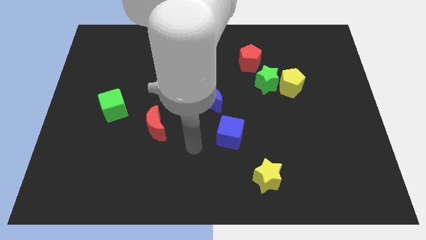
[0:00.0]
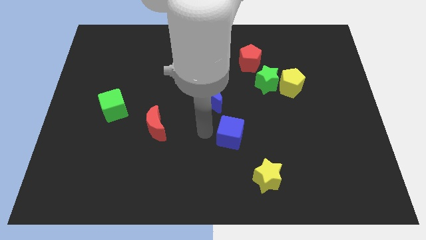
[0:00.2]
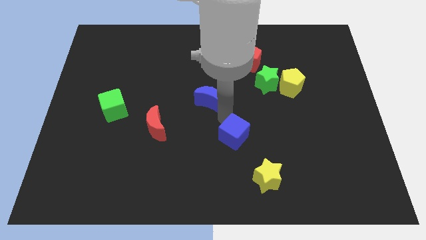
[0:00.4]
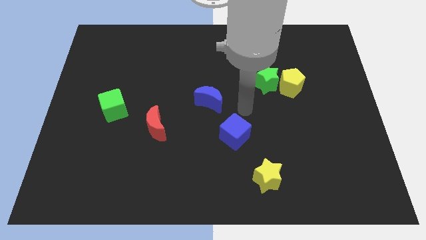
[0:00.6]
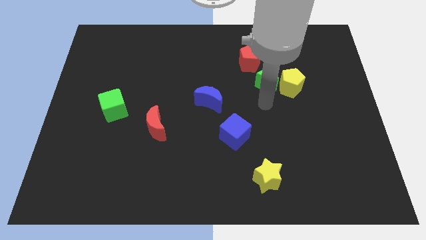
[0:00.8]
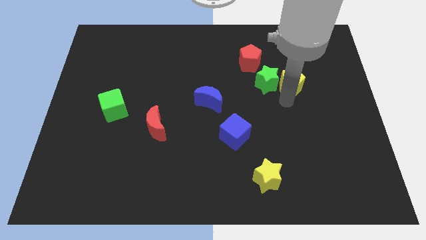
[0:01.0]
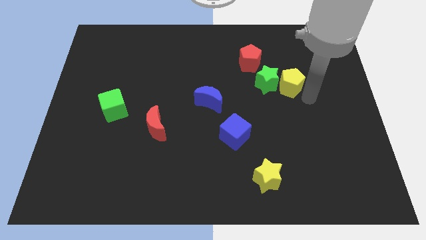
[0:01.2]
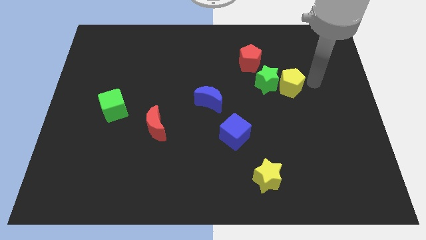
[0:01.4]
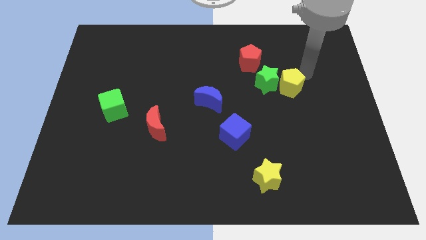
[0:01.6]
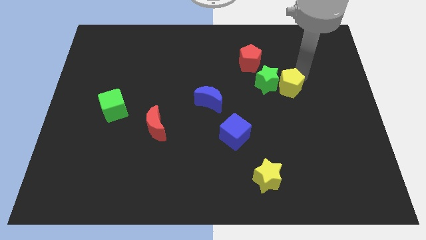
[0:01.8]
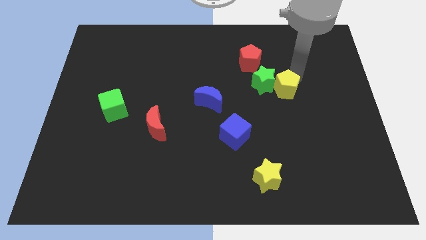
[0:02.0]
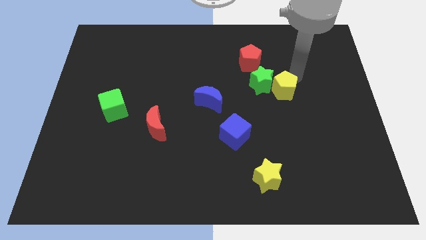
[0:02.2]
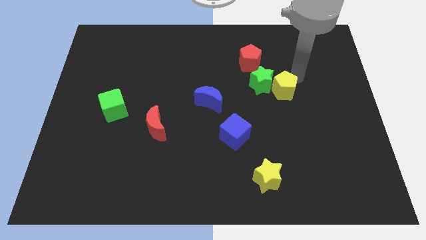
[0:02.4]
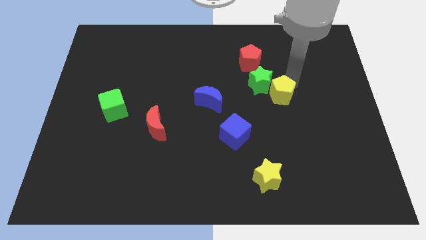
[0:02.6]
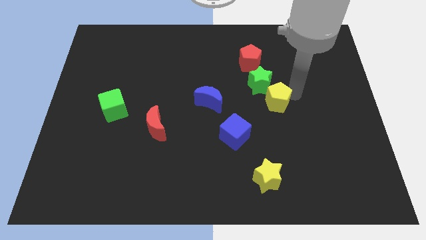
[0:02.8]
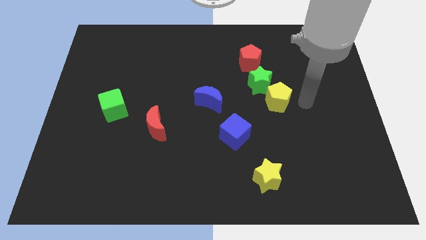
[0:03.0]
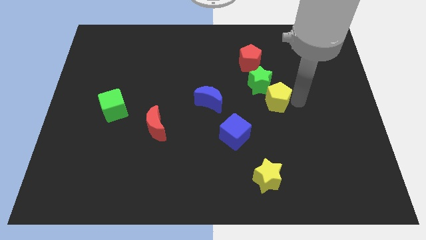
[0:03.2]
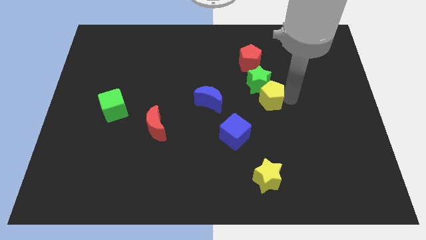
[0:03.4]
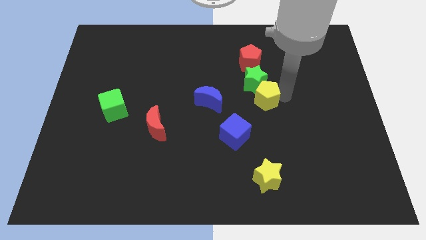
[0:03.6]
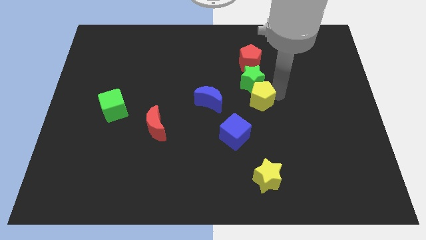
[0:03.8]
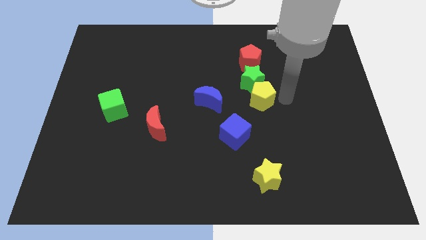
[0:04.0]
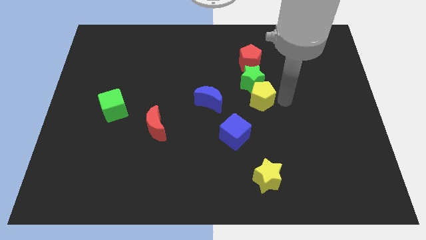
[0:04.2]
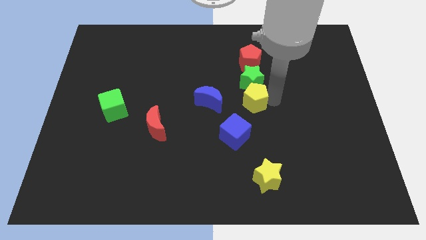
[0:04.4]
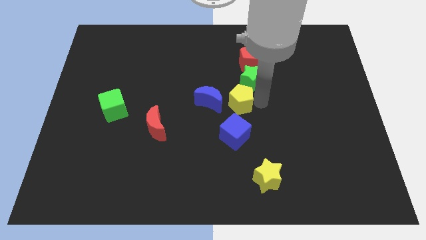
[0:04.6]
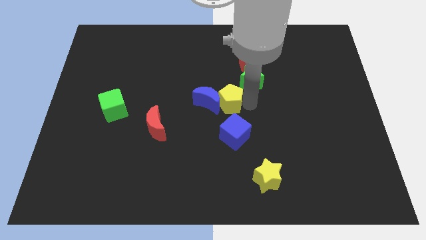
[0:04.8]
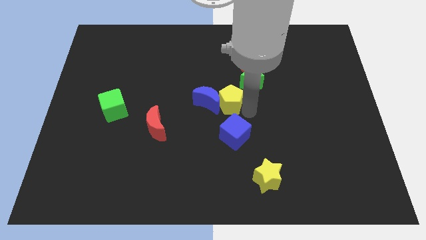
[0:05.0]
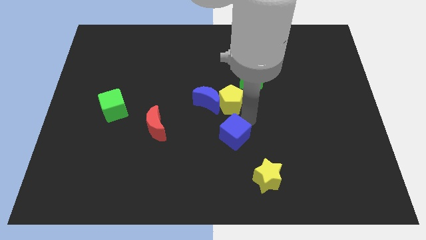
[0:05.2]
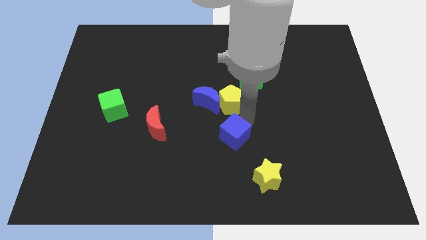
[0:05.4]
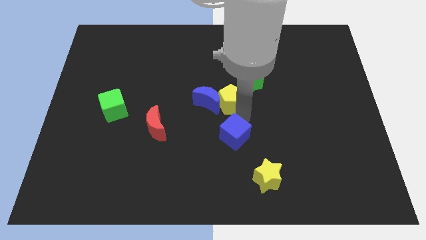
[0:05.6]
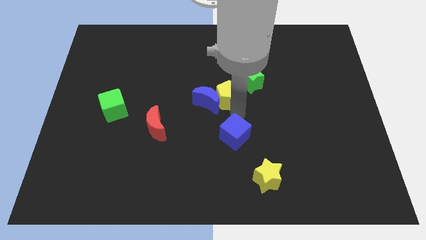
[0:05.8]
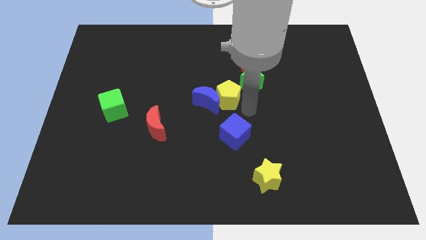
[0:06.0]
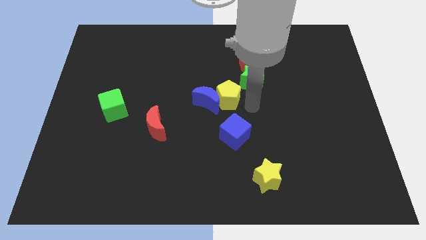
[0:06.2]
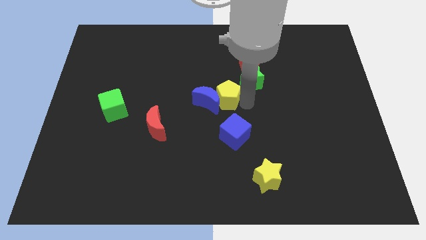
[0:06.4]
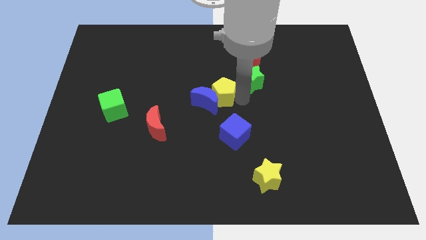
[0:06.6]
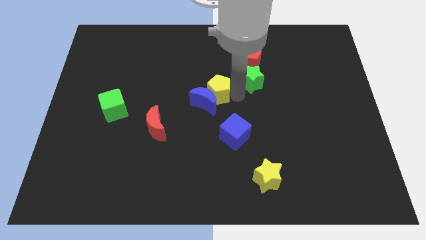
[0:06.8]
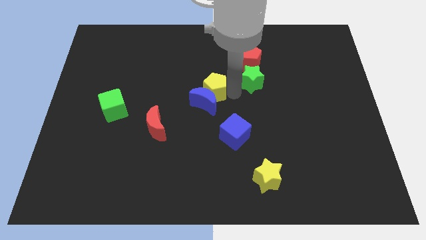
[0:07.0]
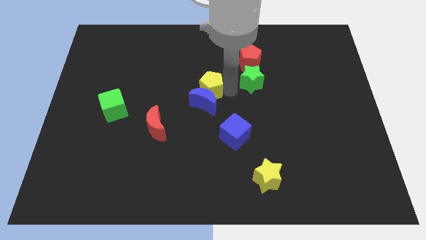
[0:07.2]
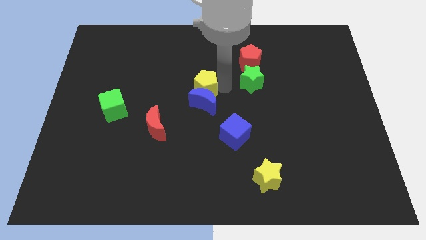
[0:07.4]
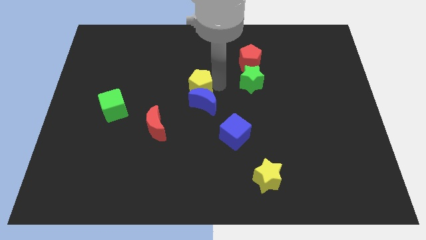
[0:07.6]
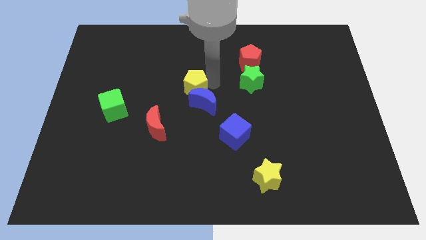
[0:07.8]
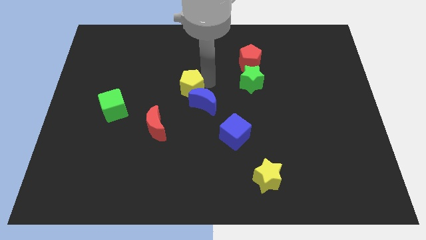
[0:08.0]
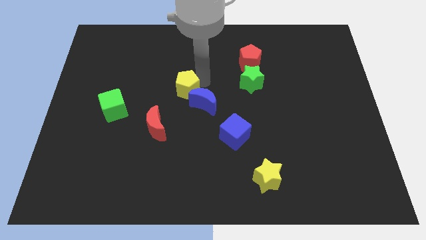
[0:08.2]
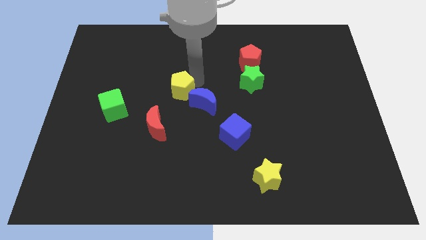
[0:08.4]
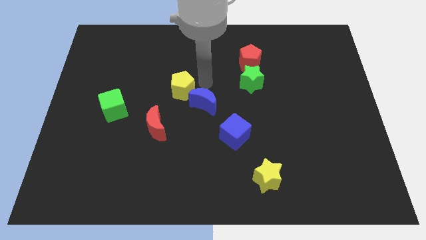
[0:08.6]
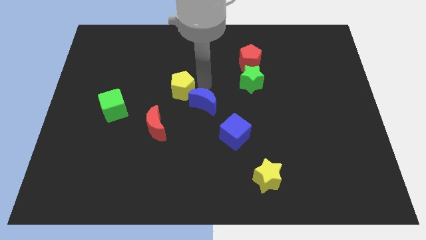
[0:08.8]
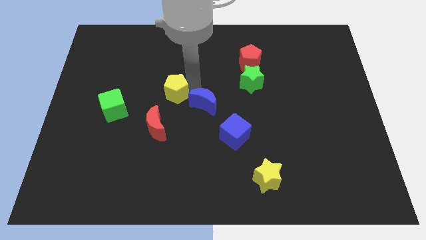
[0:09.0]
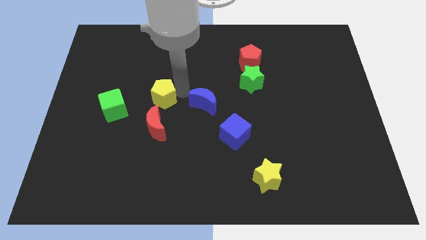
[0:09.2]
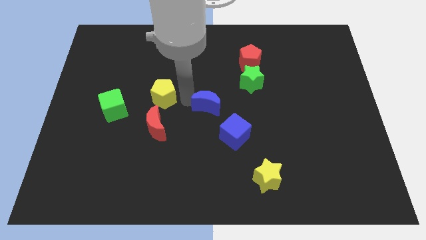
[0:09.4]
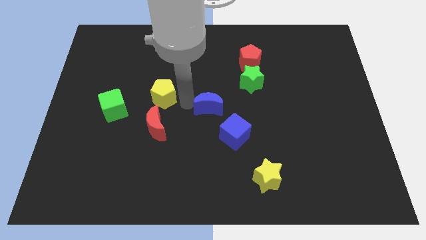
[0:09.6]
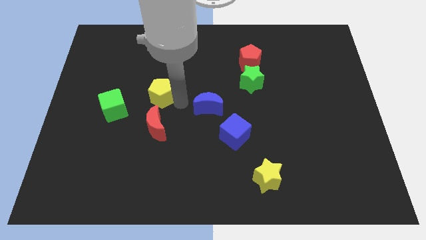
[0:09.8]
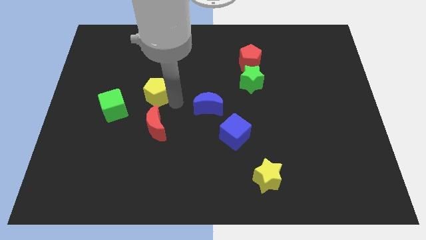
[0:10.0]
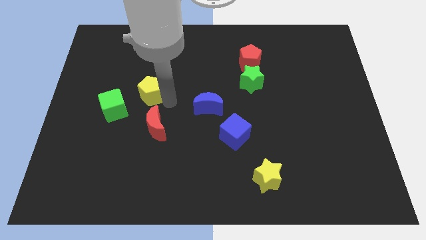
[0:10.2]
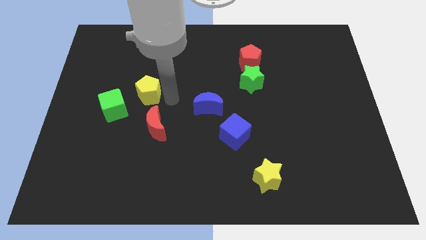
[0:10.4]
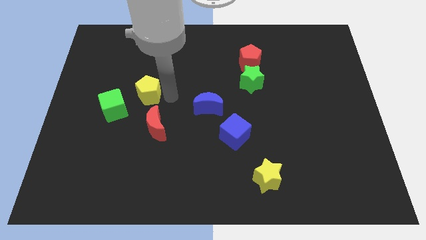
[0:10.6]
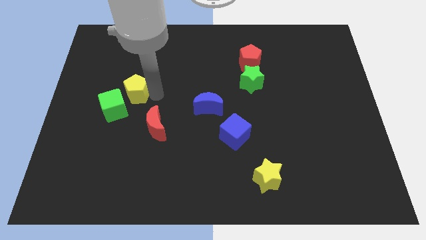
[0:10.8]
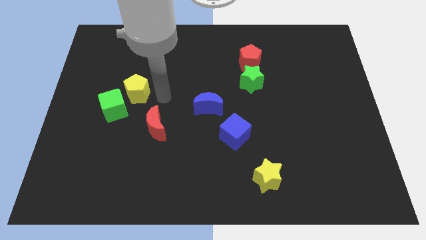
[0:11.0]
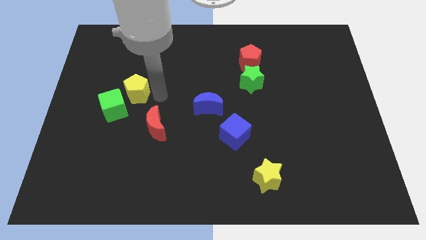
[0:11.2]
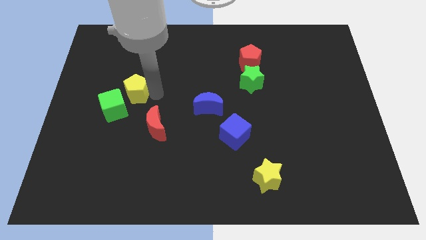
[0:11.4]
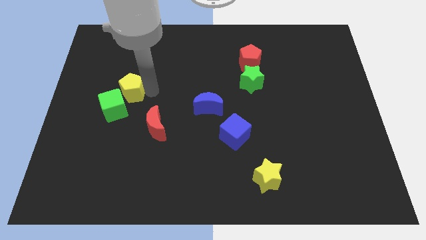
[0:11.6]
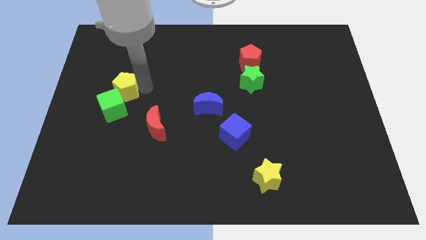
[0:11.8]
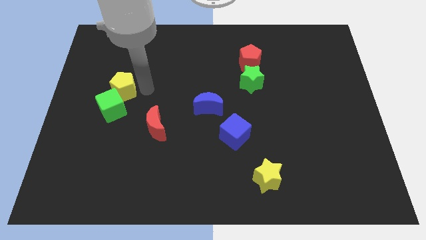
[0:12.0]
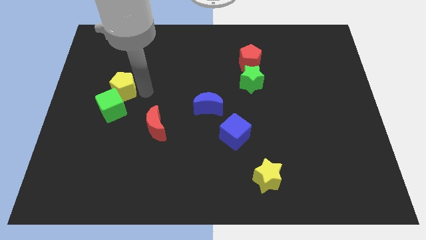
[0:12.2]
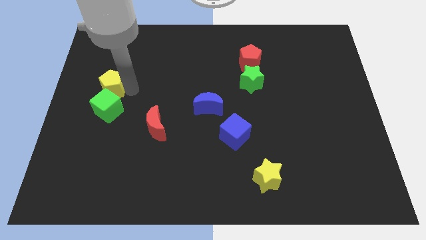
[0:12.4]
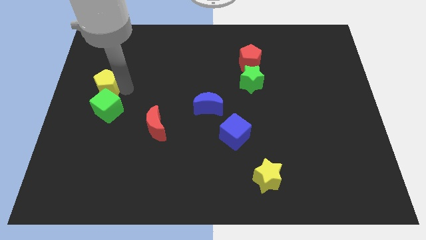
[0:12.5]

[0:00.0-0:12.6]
slide the yellow pentagon to the left side

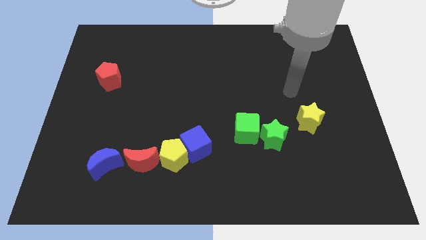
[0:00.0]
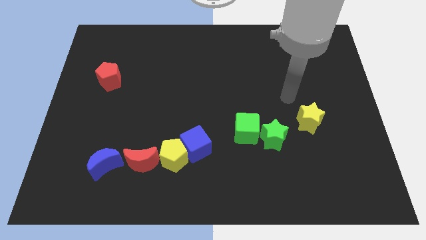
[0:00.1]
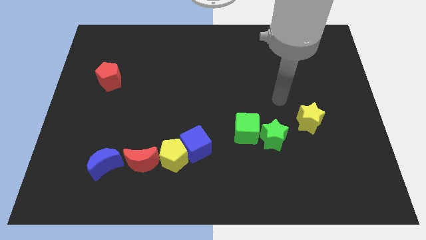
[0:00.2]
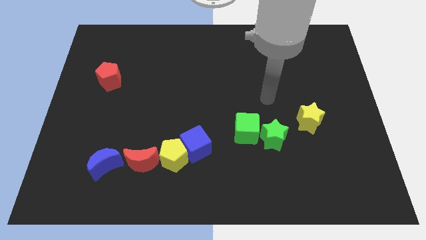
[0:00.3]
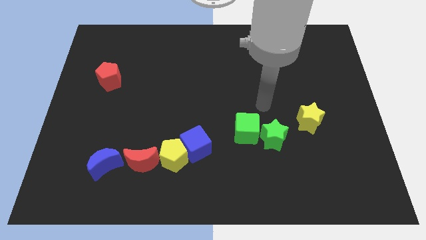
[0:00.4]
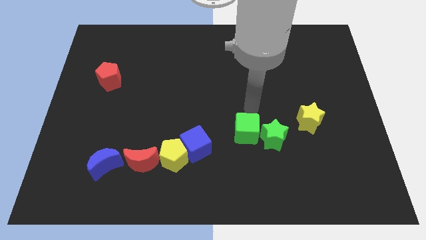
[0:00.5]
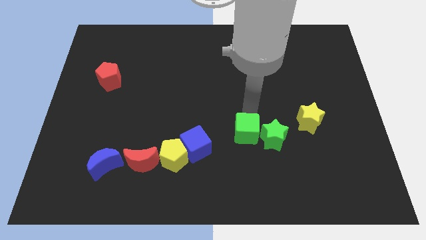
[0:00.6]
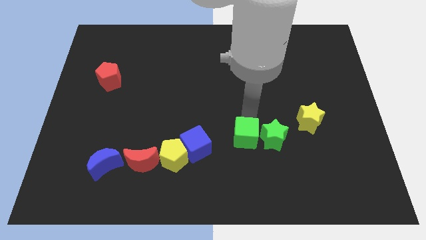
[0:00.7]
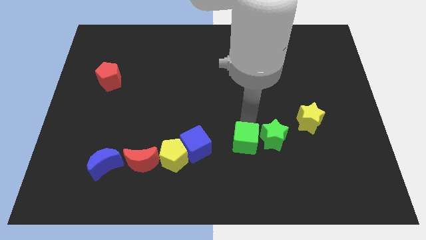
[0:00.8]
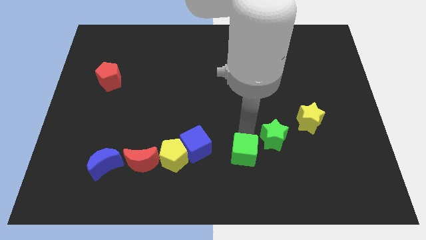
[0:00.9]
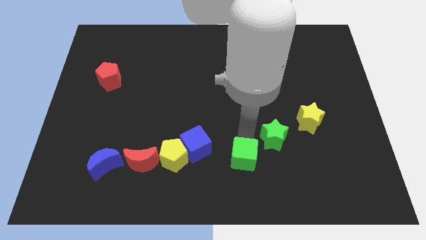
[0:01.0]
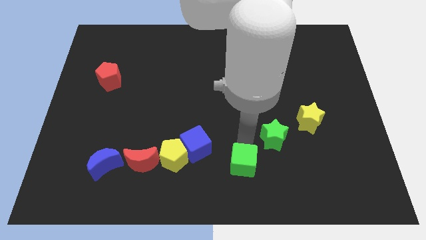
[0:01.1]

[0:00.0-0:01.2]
push the green cube to the bottom side
